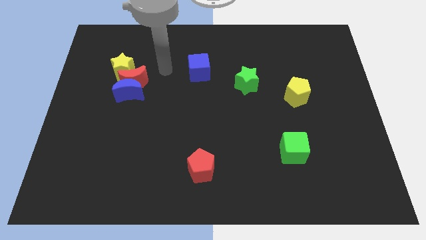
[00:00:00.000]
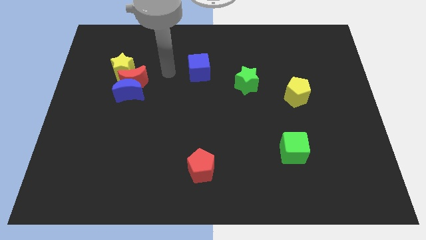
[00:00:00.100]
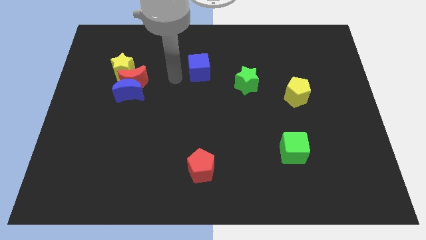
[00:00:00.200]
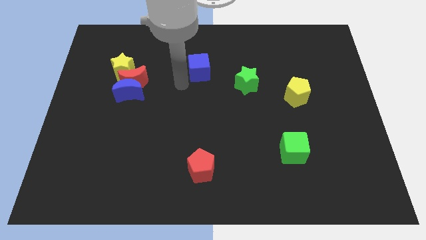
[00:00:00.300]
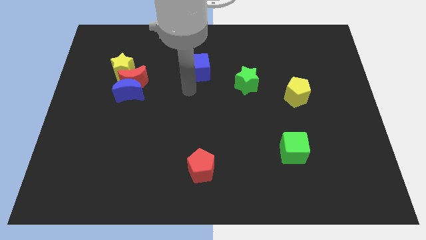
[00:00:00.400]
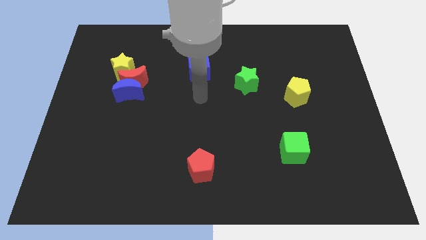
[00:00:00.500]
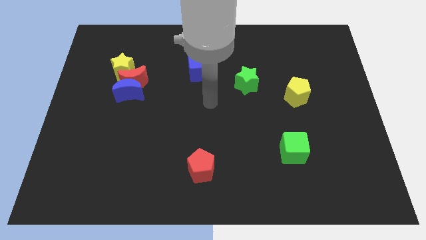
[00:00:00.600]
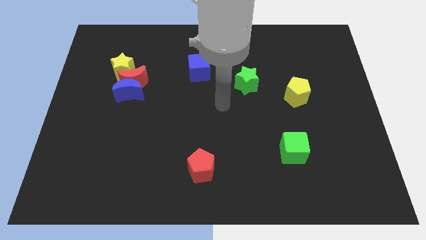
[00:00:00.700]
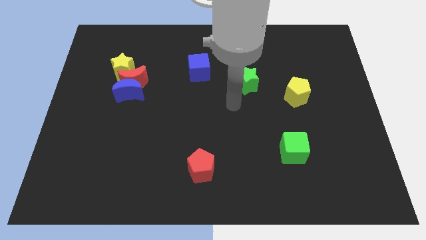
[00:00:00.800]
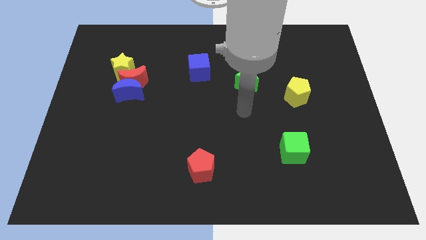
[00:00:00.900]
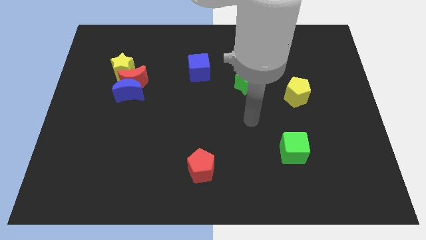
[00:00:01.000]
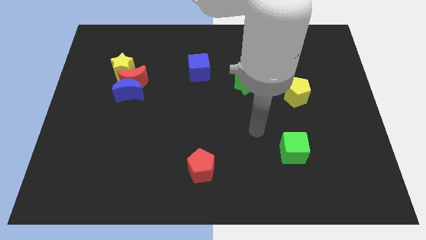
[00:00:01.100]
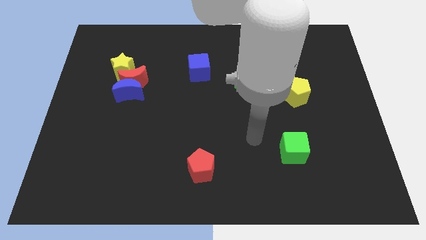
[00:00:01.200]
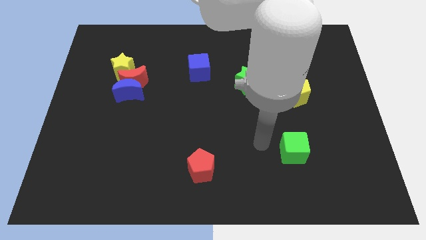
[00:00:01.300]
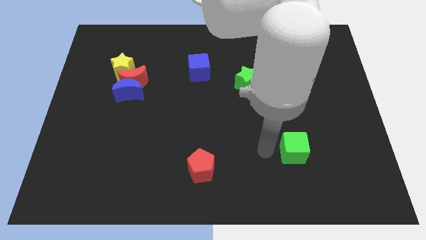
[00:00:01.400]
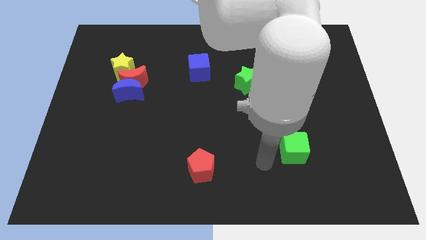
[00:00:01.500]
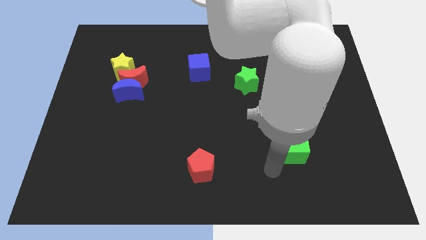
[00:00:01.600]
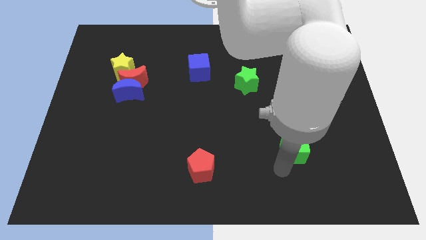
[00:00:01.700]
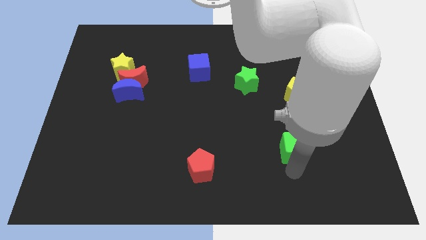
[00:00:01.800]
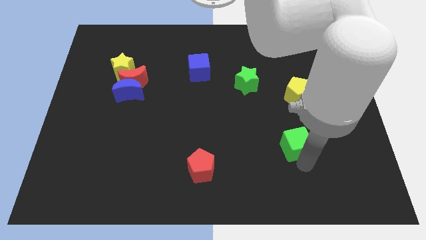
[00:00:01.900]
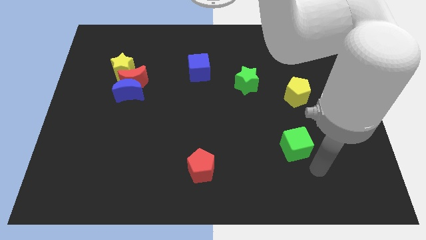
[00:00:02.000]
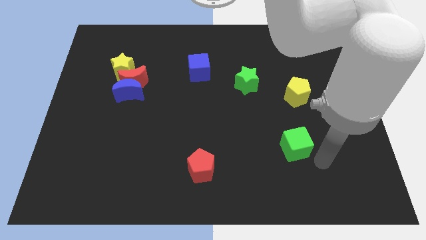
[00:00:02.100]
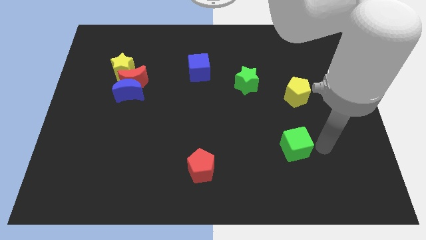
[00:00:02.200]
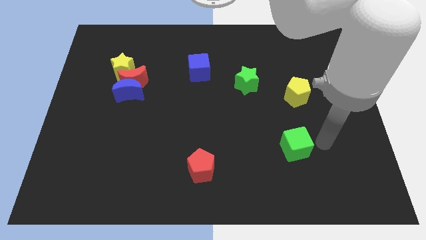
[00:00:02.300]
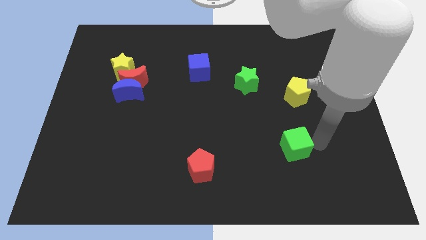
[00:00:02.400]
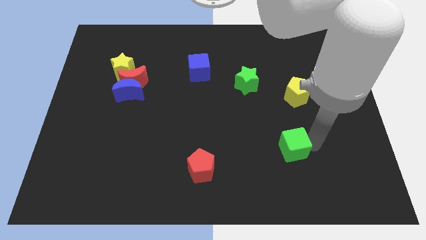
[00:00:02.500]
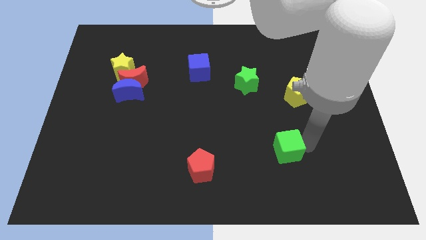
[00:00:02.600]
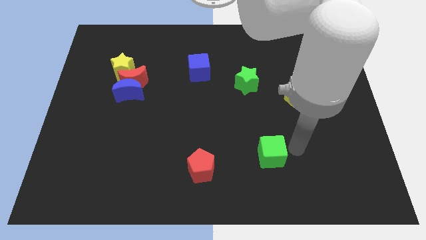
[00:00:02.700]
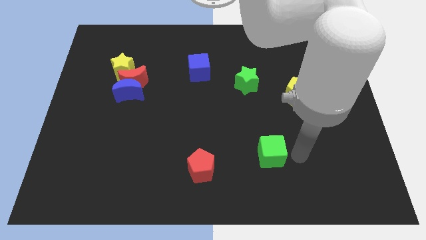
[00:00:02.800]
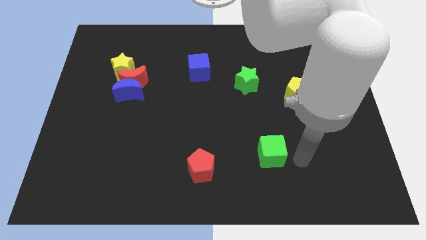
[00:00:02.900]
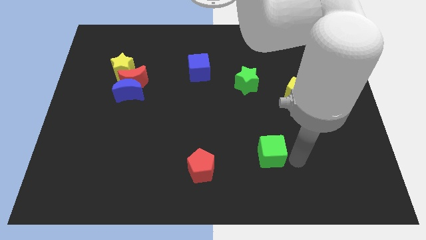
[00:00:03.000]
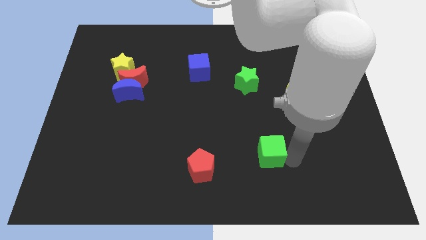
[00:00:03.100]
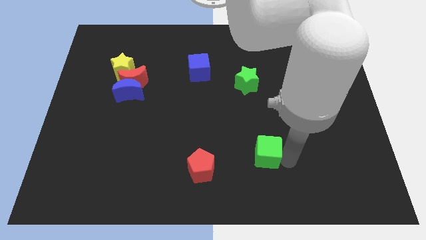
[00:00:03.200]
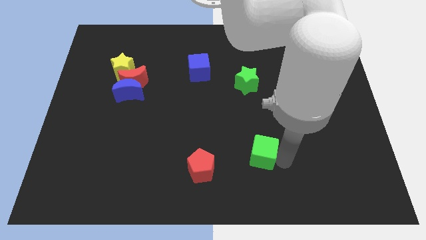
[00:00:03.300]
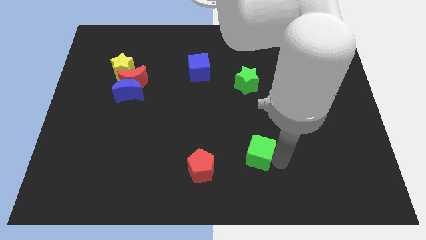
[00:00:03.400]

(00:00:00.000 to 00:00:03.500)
slightly move the green cube to the left

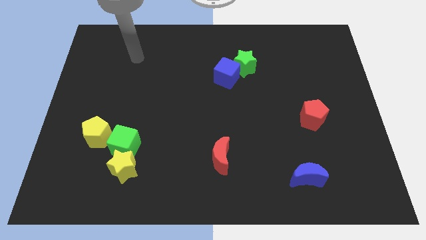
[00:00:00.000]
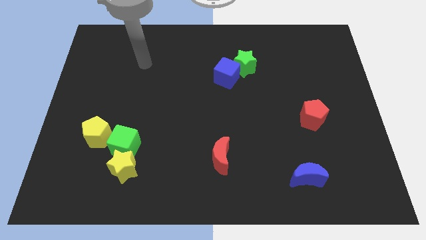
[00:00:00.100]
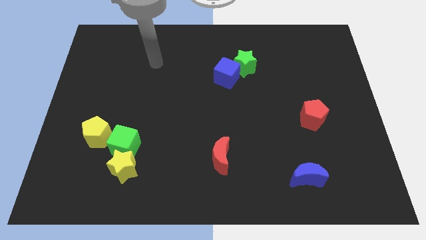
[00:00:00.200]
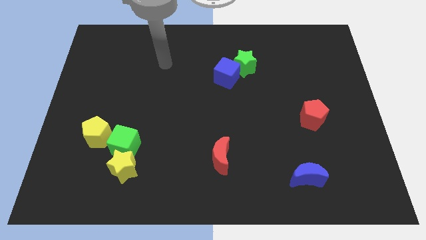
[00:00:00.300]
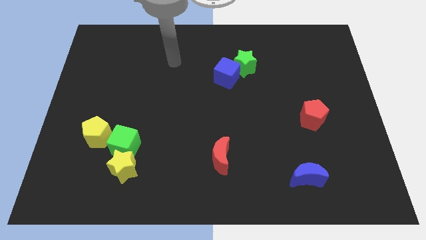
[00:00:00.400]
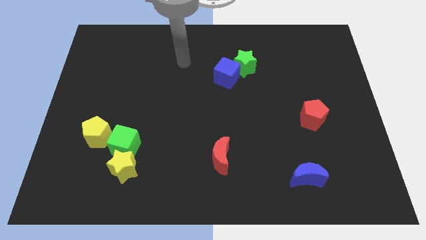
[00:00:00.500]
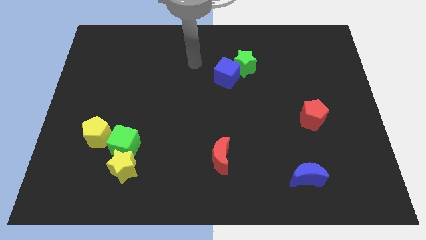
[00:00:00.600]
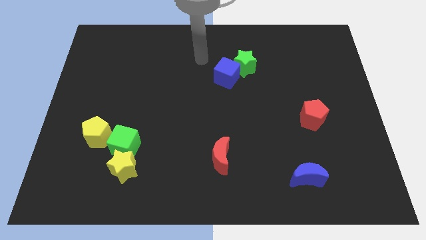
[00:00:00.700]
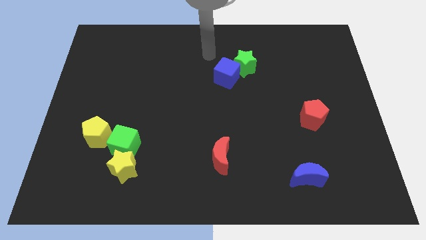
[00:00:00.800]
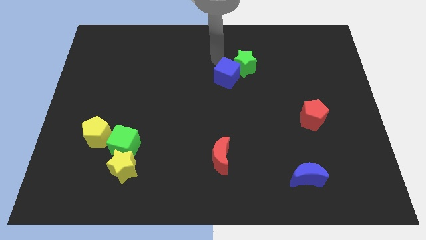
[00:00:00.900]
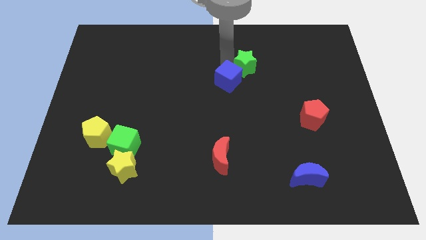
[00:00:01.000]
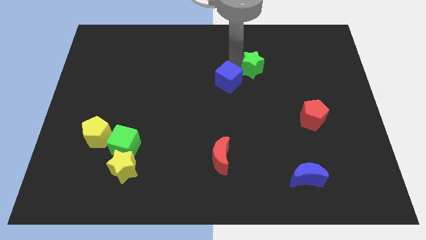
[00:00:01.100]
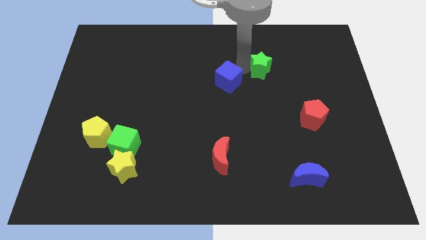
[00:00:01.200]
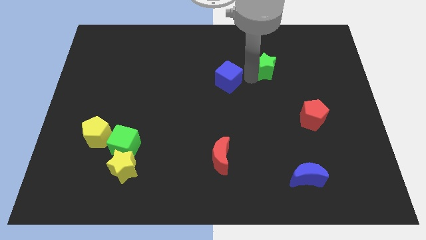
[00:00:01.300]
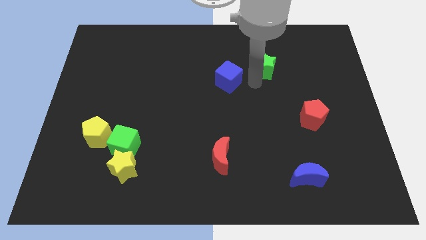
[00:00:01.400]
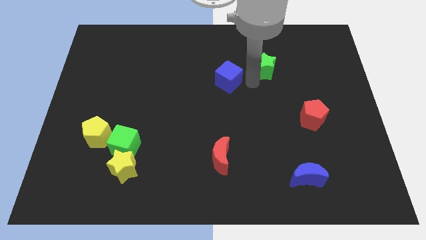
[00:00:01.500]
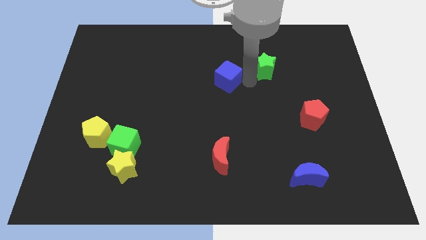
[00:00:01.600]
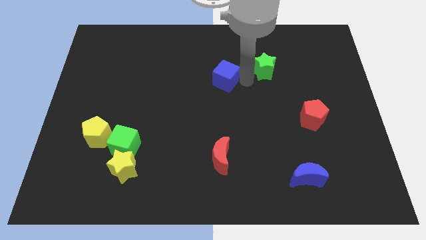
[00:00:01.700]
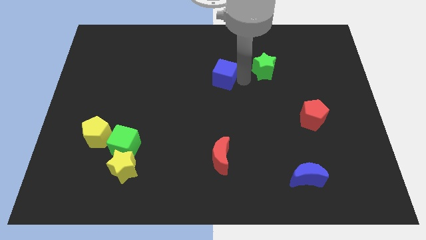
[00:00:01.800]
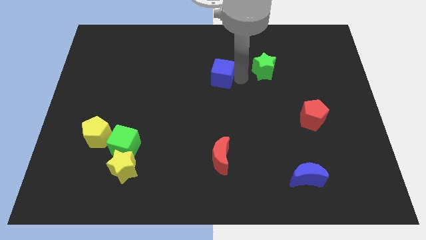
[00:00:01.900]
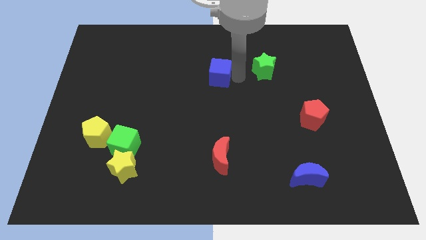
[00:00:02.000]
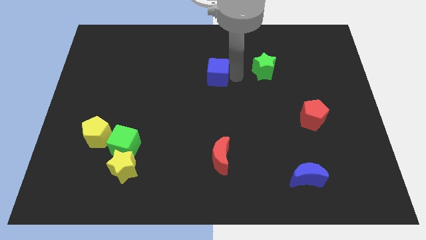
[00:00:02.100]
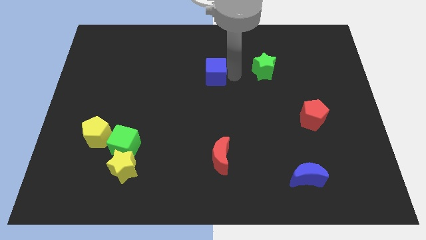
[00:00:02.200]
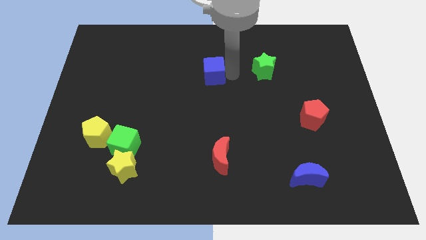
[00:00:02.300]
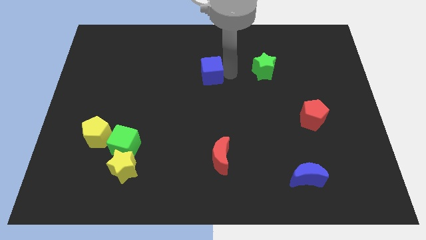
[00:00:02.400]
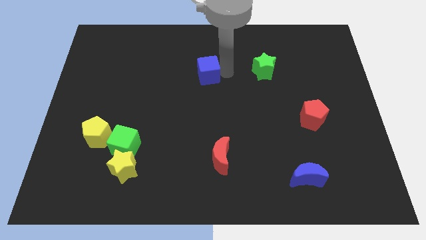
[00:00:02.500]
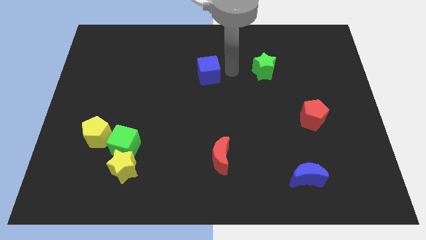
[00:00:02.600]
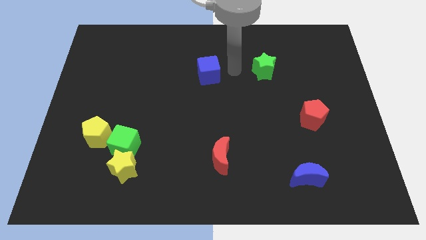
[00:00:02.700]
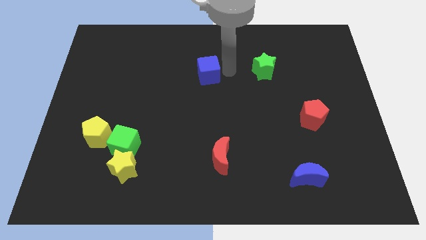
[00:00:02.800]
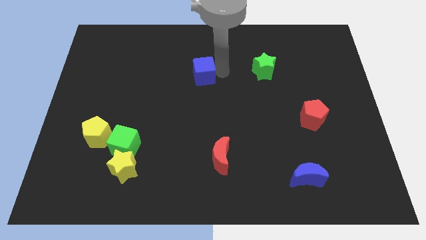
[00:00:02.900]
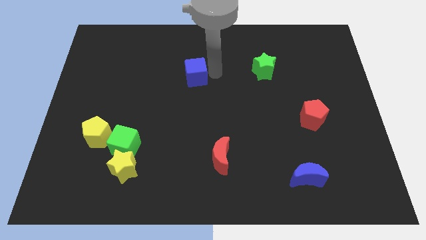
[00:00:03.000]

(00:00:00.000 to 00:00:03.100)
slide the blue cube to the left a little

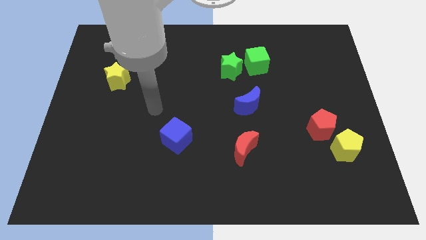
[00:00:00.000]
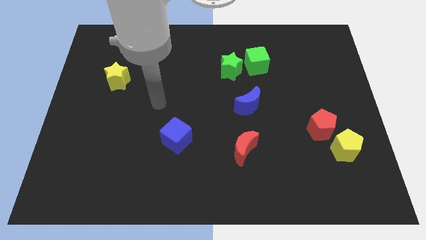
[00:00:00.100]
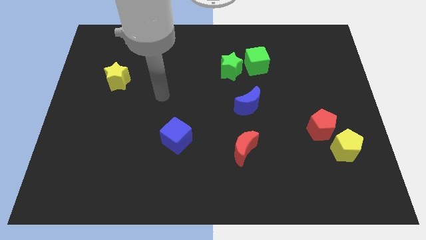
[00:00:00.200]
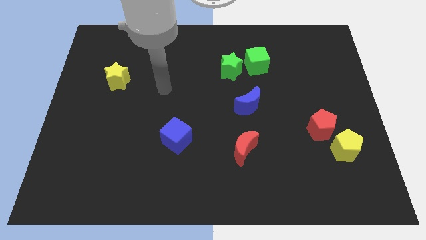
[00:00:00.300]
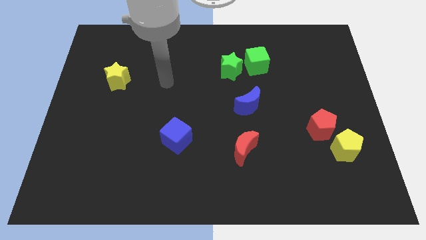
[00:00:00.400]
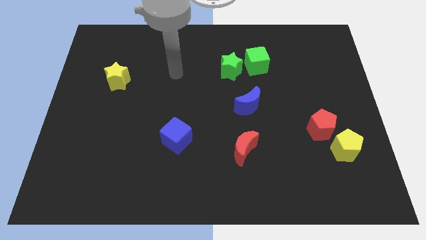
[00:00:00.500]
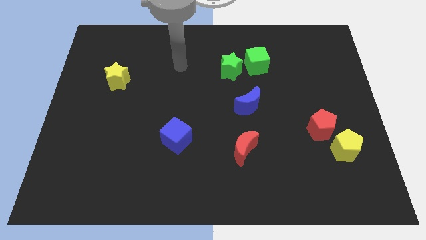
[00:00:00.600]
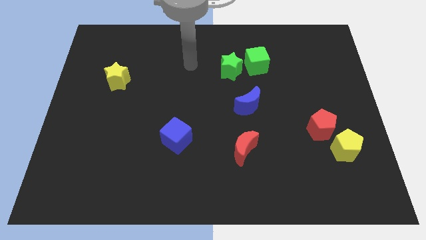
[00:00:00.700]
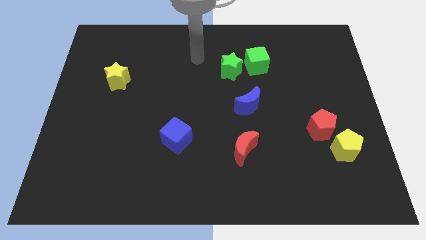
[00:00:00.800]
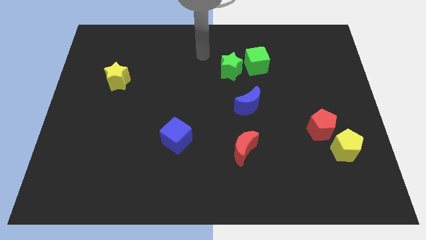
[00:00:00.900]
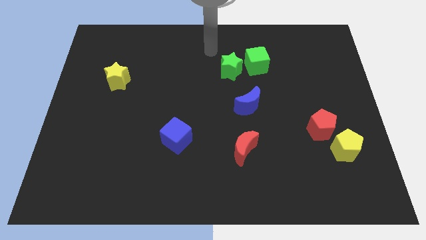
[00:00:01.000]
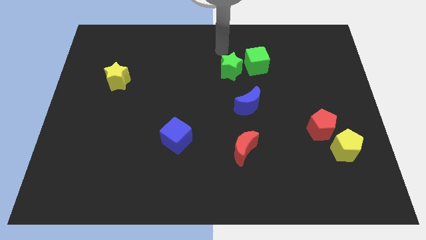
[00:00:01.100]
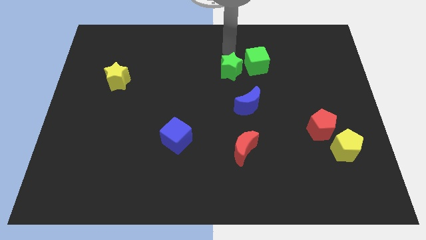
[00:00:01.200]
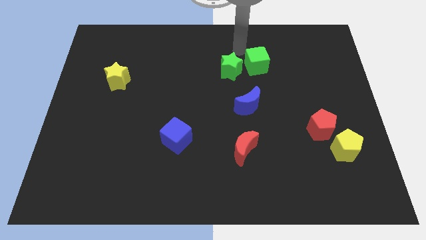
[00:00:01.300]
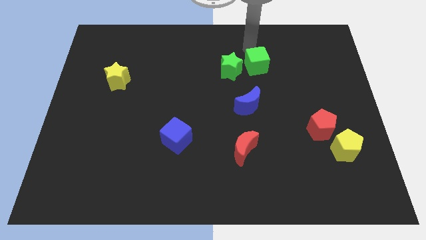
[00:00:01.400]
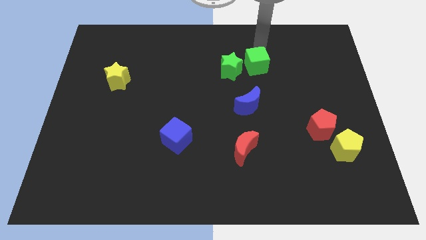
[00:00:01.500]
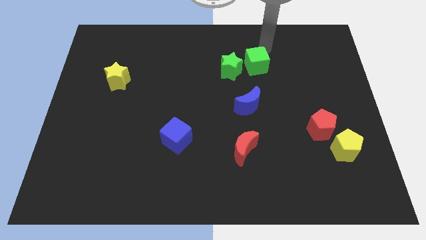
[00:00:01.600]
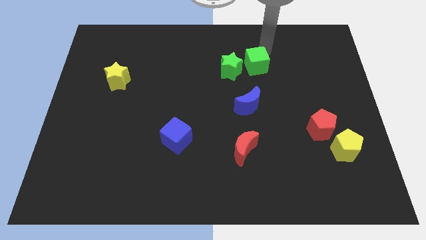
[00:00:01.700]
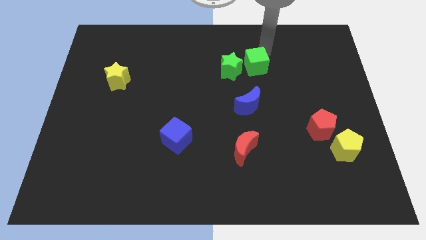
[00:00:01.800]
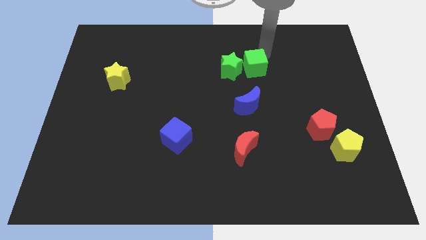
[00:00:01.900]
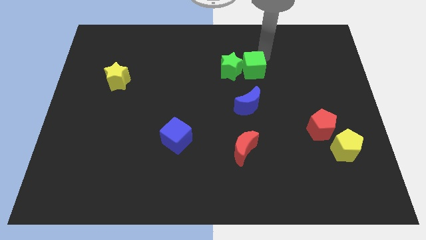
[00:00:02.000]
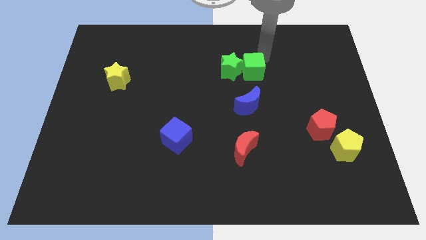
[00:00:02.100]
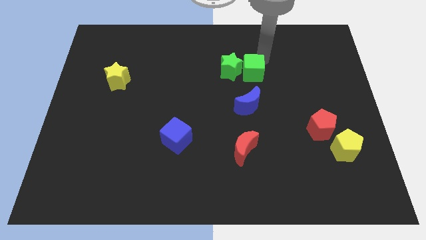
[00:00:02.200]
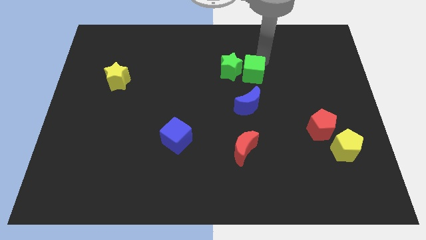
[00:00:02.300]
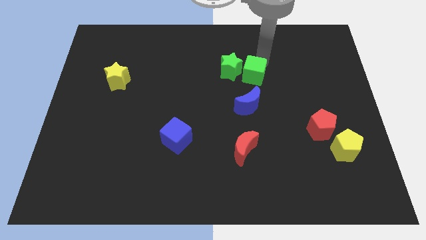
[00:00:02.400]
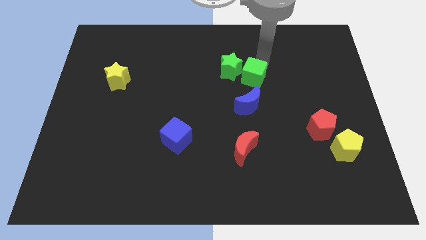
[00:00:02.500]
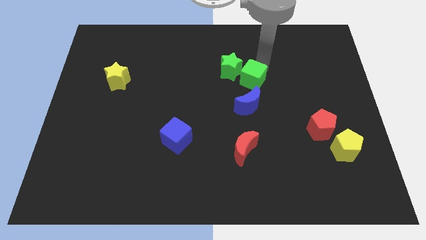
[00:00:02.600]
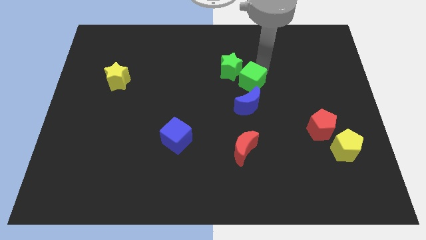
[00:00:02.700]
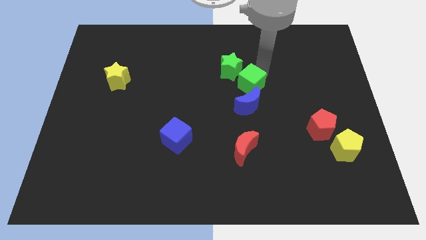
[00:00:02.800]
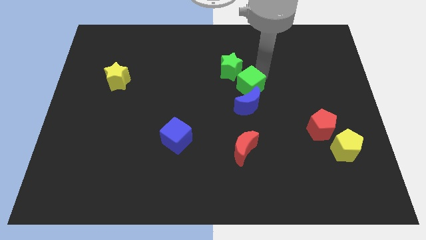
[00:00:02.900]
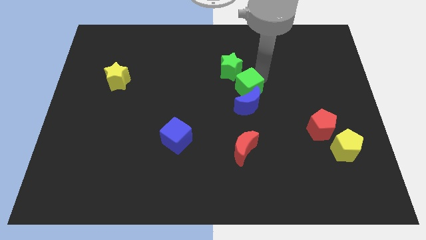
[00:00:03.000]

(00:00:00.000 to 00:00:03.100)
slightly slide the green cube diagonally down and to the left
